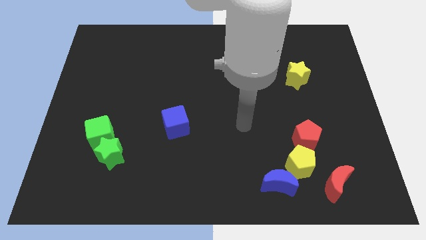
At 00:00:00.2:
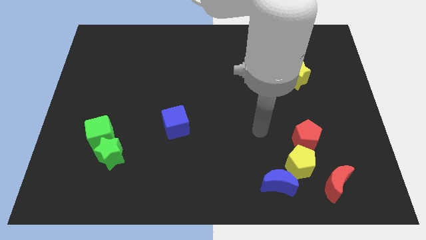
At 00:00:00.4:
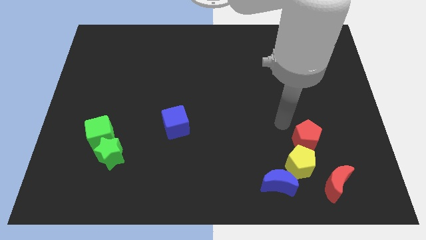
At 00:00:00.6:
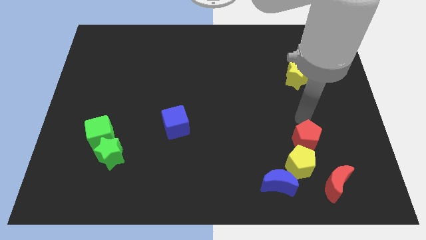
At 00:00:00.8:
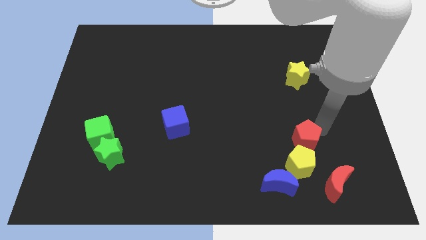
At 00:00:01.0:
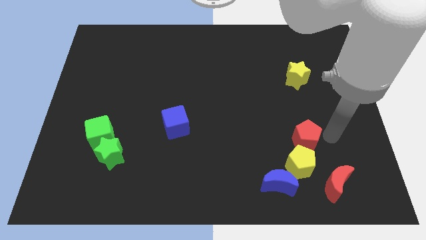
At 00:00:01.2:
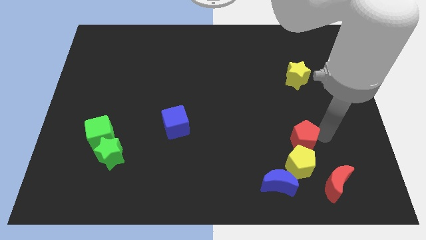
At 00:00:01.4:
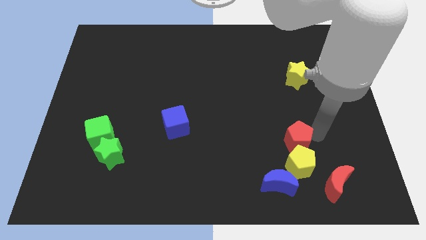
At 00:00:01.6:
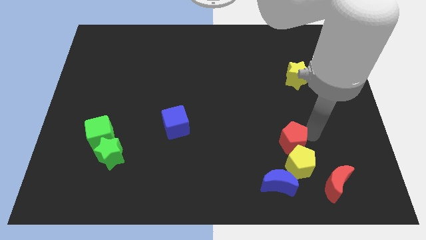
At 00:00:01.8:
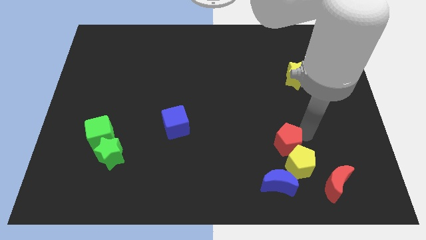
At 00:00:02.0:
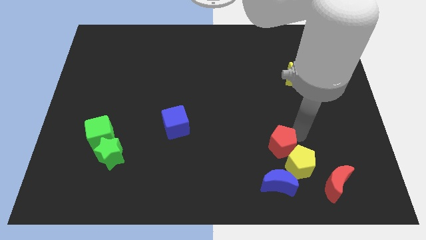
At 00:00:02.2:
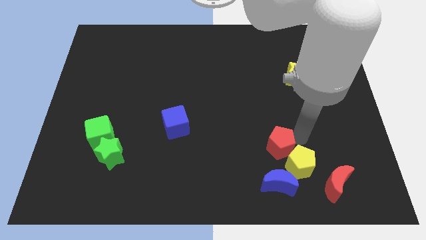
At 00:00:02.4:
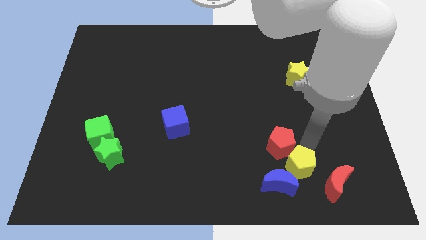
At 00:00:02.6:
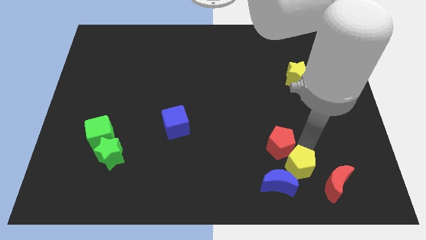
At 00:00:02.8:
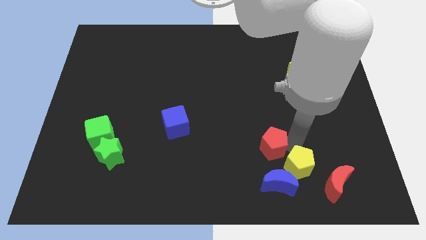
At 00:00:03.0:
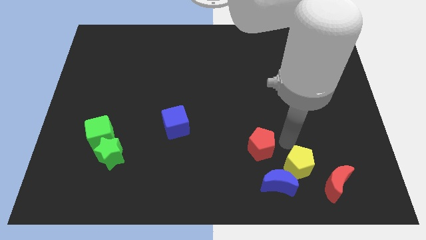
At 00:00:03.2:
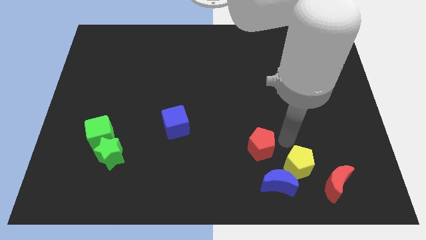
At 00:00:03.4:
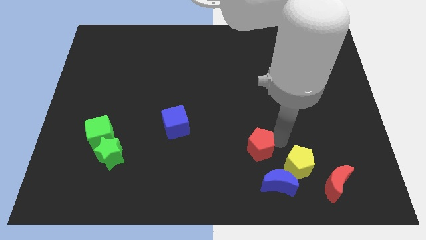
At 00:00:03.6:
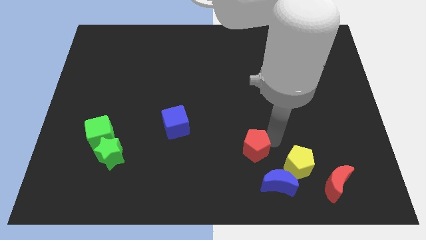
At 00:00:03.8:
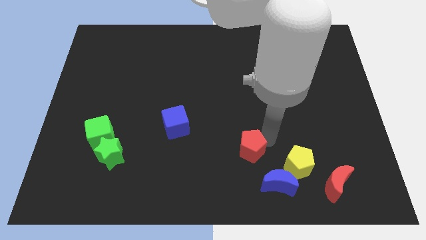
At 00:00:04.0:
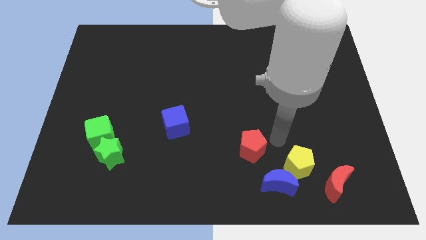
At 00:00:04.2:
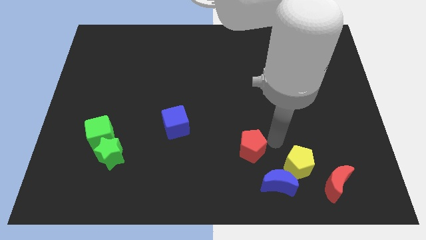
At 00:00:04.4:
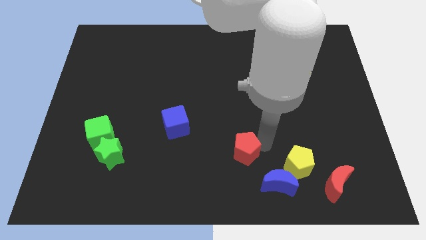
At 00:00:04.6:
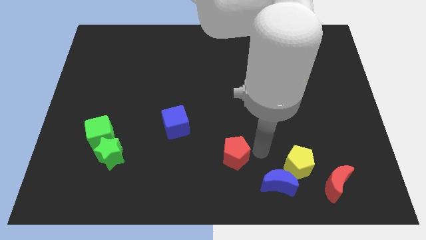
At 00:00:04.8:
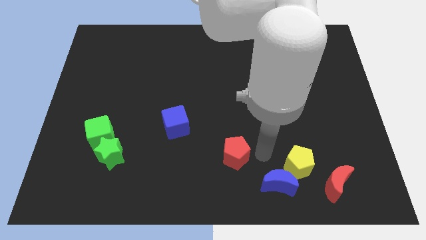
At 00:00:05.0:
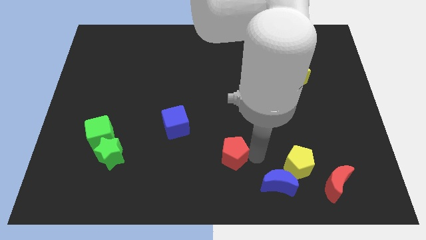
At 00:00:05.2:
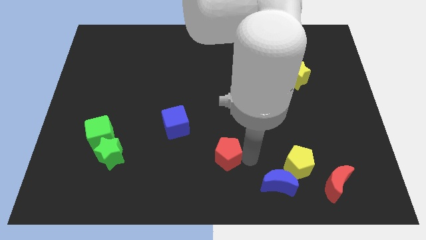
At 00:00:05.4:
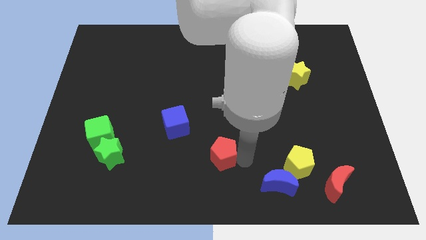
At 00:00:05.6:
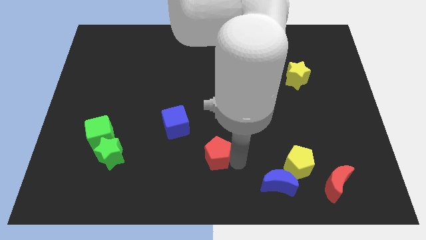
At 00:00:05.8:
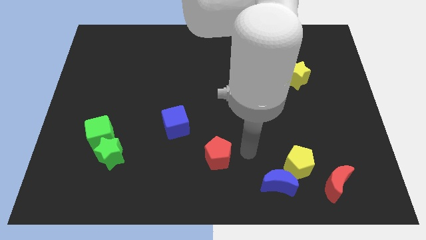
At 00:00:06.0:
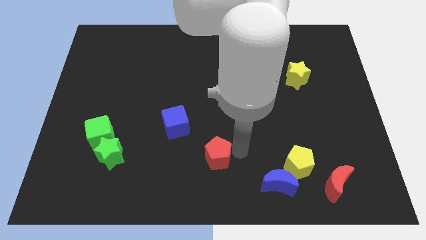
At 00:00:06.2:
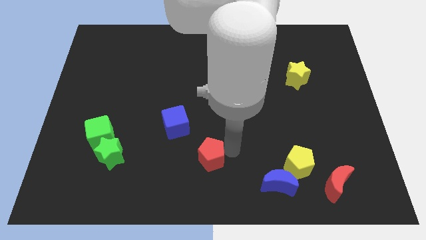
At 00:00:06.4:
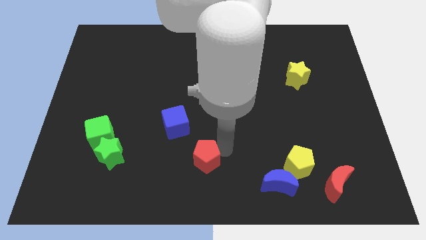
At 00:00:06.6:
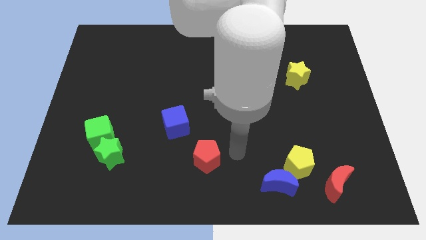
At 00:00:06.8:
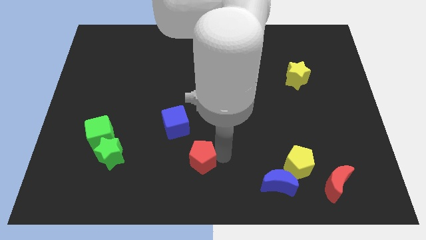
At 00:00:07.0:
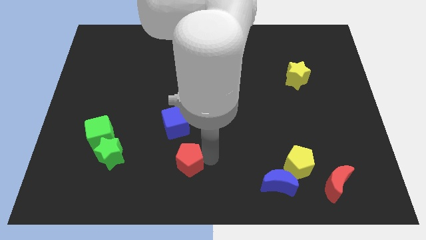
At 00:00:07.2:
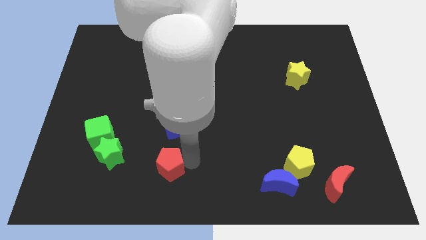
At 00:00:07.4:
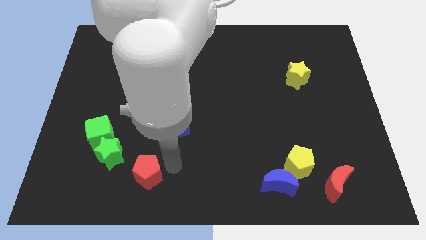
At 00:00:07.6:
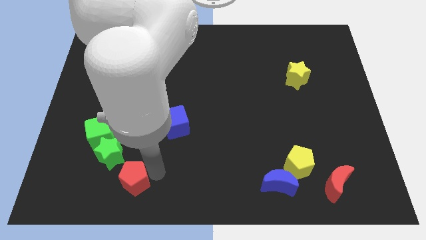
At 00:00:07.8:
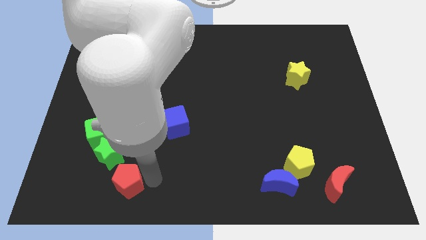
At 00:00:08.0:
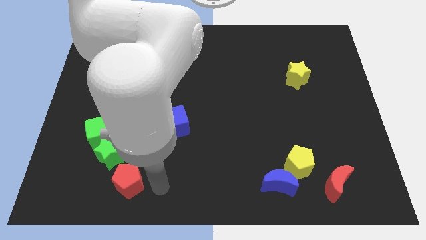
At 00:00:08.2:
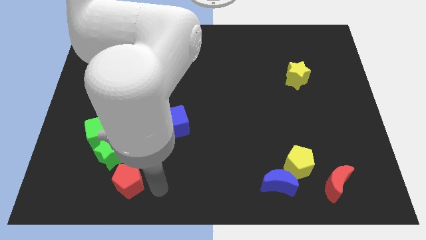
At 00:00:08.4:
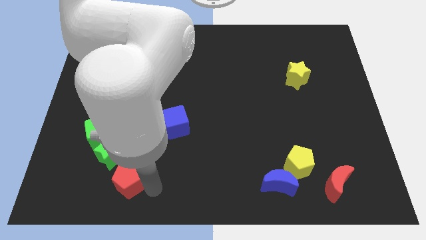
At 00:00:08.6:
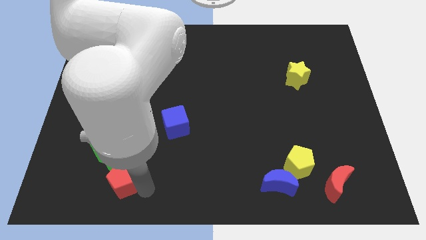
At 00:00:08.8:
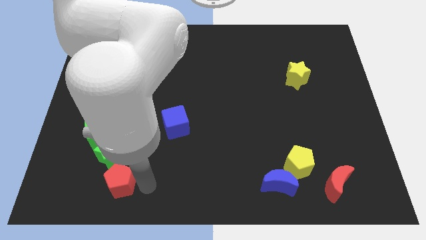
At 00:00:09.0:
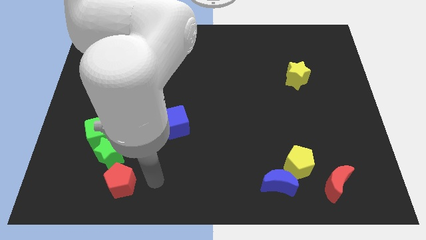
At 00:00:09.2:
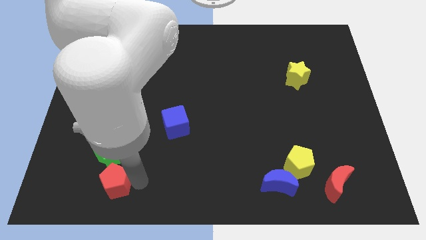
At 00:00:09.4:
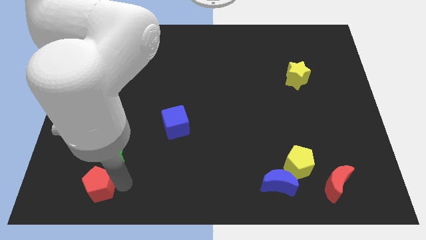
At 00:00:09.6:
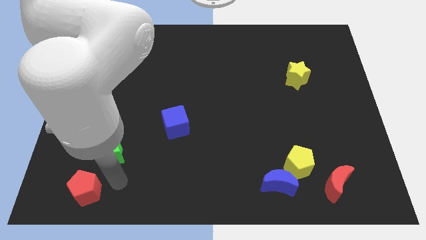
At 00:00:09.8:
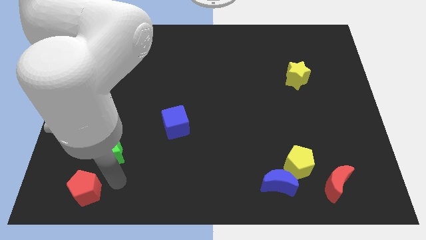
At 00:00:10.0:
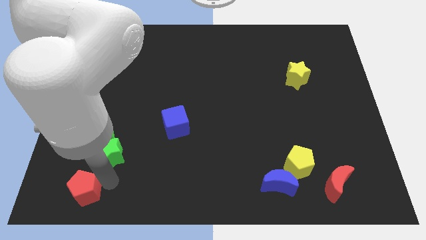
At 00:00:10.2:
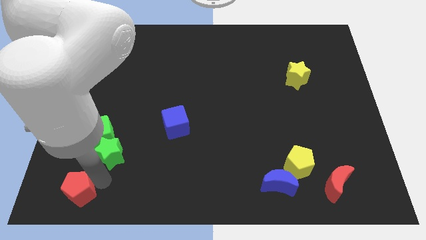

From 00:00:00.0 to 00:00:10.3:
put the red pentagon to the lower left corner

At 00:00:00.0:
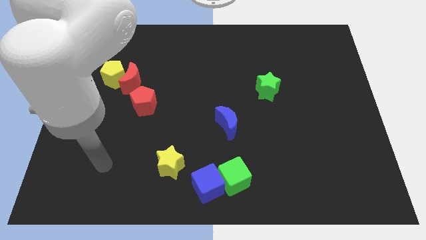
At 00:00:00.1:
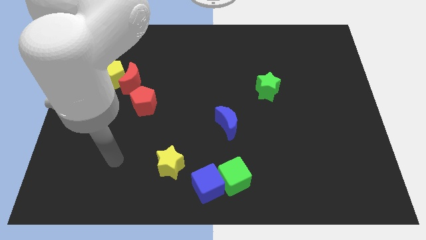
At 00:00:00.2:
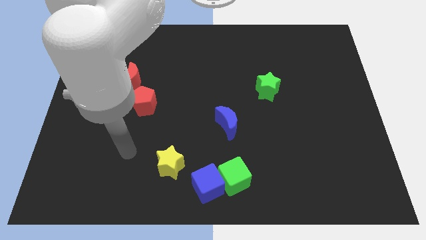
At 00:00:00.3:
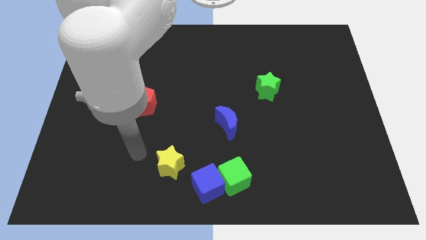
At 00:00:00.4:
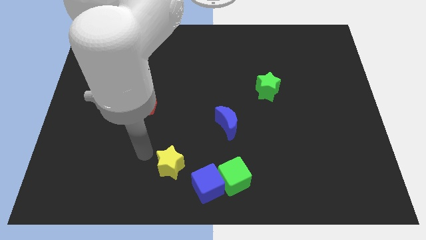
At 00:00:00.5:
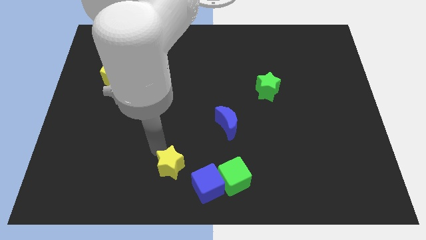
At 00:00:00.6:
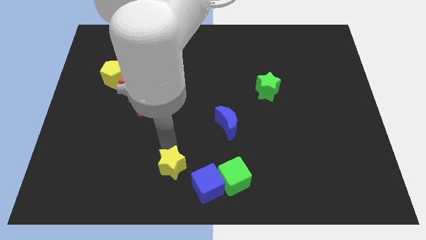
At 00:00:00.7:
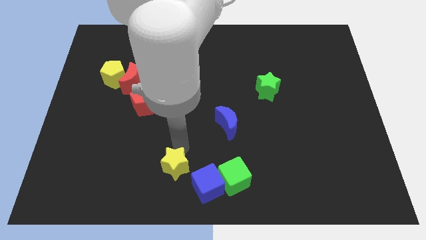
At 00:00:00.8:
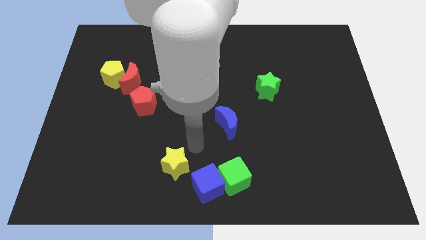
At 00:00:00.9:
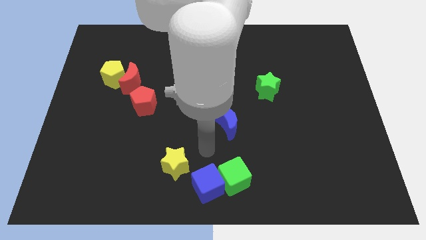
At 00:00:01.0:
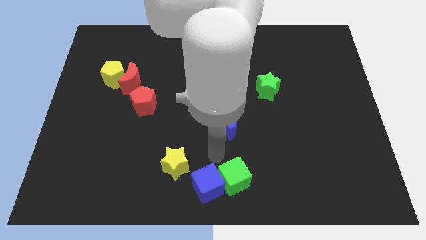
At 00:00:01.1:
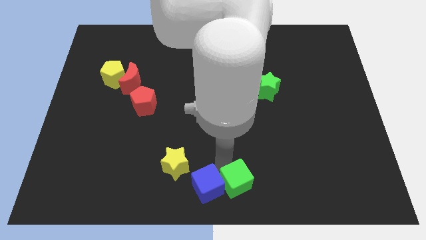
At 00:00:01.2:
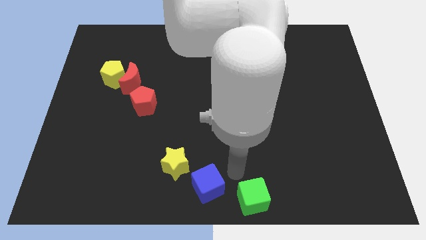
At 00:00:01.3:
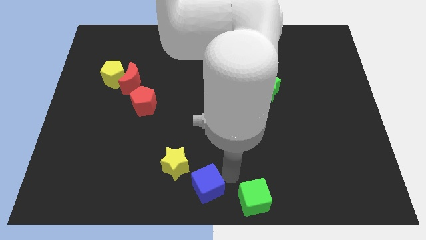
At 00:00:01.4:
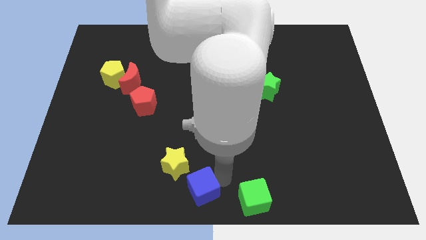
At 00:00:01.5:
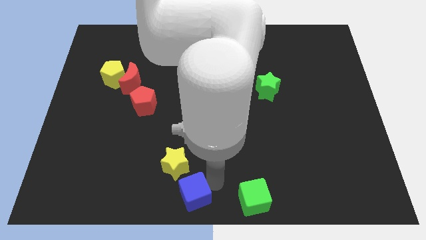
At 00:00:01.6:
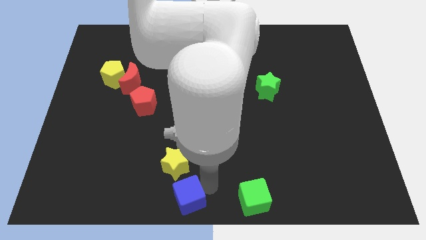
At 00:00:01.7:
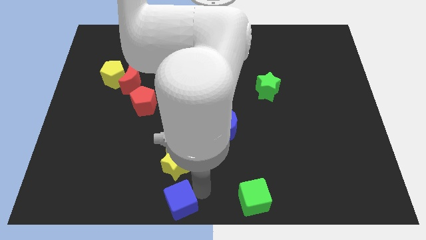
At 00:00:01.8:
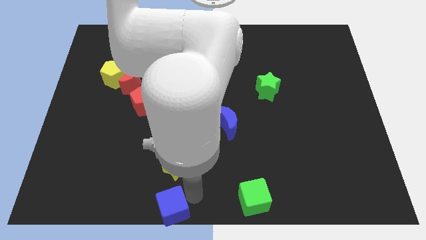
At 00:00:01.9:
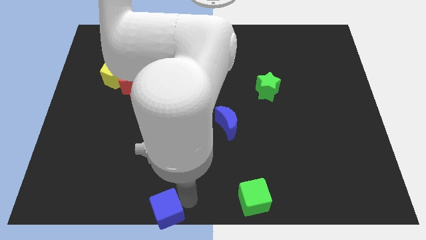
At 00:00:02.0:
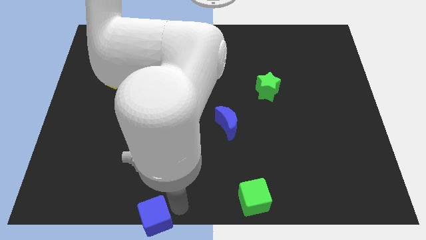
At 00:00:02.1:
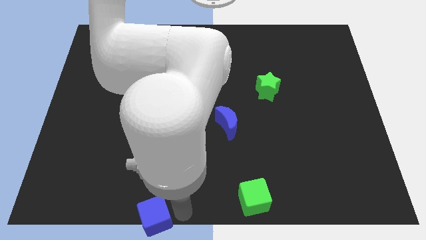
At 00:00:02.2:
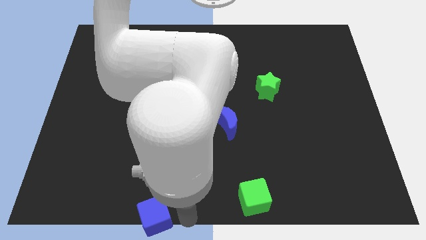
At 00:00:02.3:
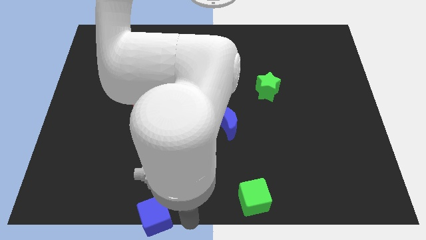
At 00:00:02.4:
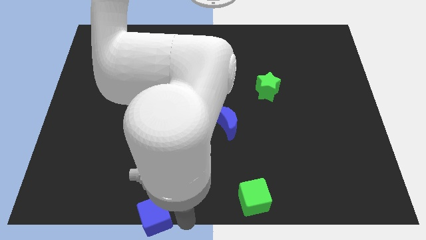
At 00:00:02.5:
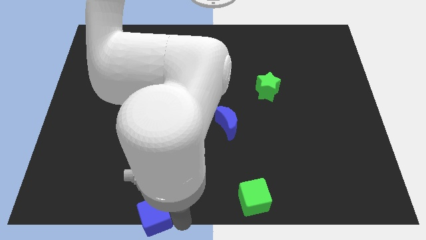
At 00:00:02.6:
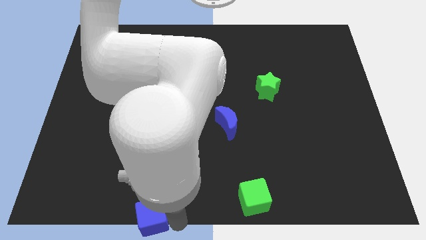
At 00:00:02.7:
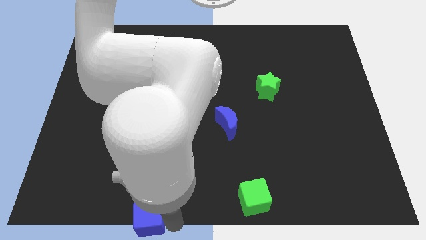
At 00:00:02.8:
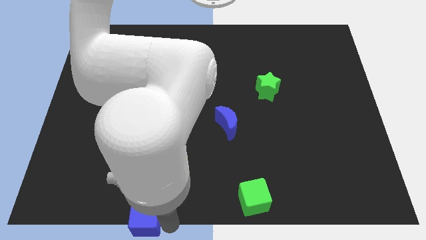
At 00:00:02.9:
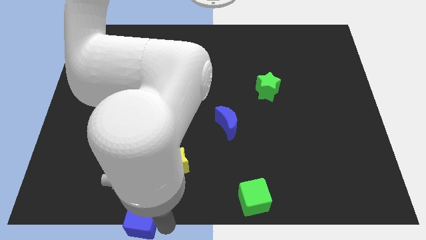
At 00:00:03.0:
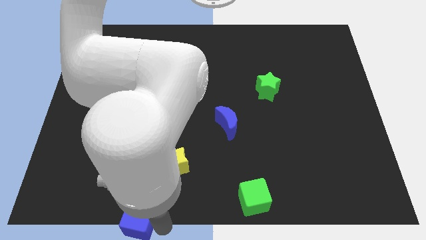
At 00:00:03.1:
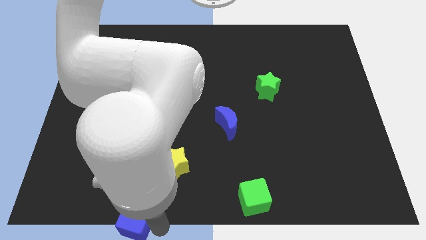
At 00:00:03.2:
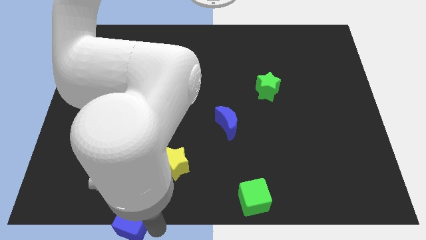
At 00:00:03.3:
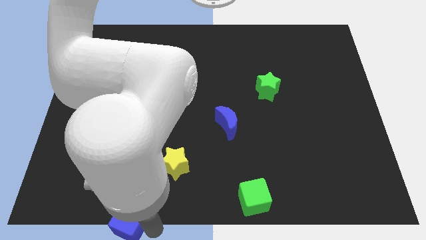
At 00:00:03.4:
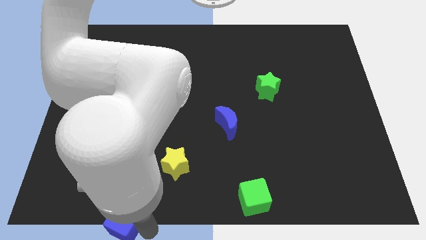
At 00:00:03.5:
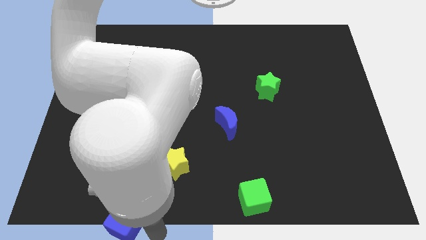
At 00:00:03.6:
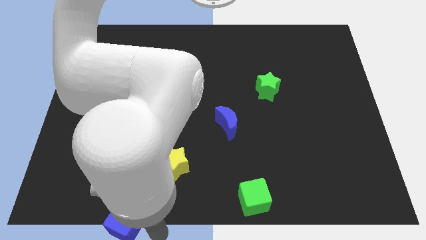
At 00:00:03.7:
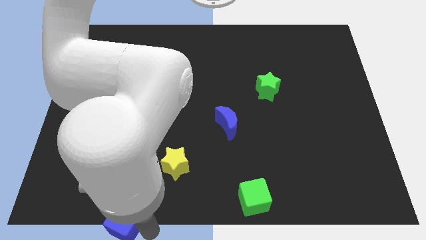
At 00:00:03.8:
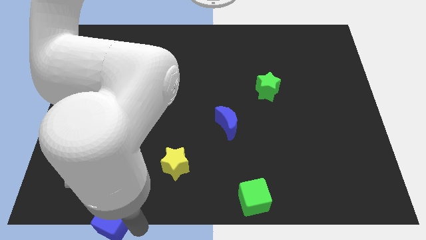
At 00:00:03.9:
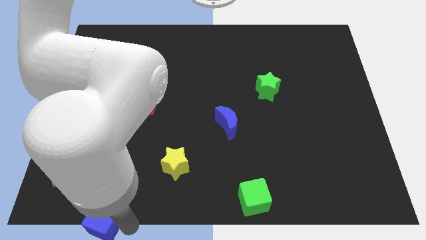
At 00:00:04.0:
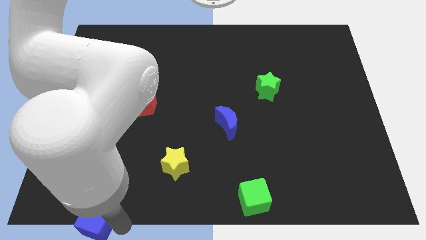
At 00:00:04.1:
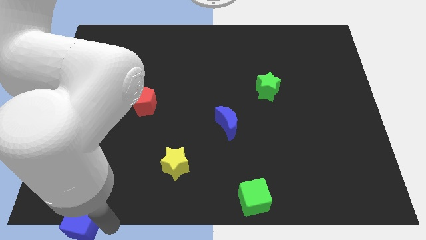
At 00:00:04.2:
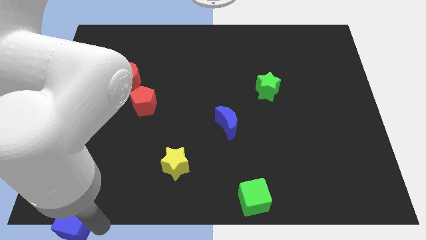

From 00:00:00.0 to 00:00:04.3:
move the blue cube to the bottom left
